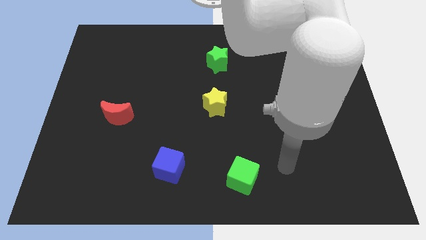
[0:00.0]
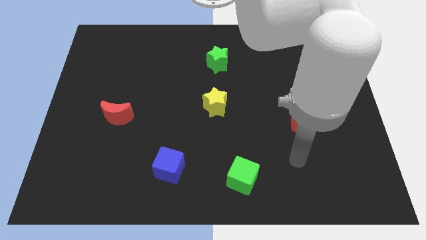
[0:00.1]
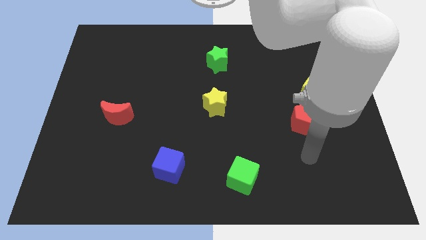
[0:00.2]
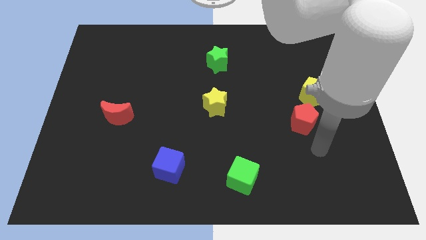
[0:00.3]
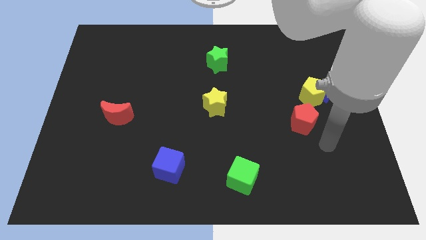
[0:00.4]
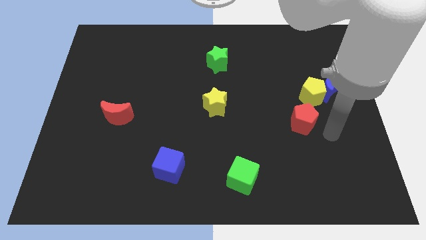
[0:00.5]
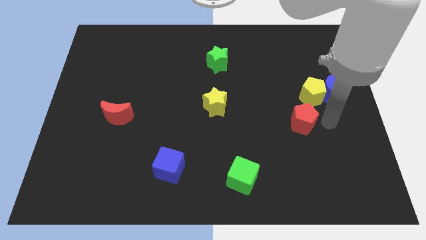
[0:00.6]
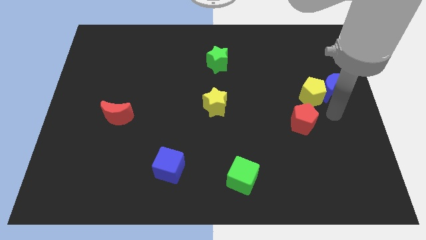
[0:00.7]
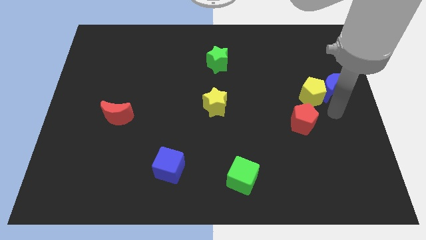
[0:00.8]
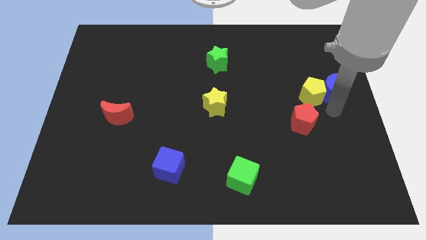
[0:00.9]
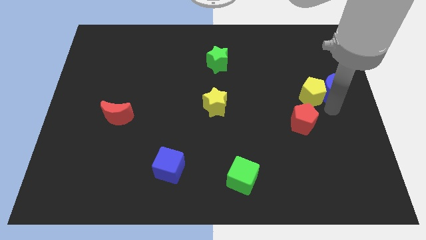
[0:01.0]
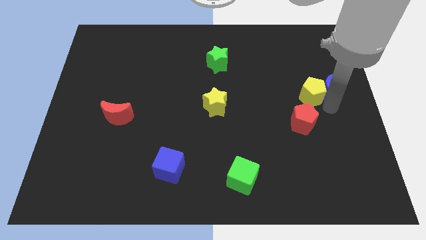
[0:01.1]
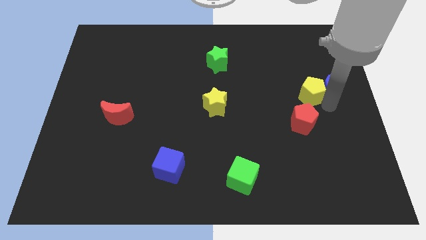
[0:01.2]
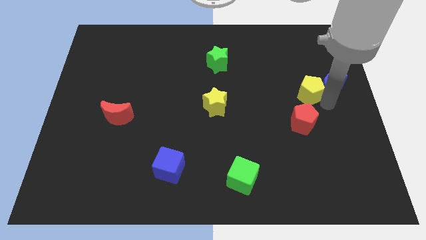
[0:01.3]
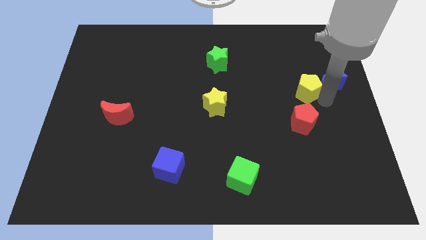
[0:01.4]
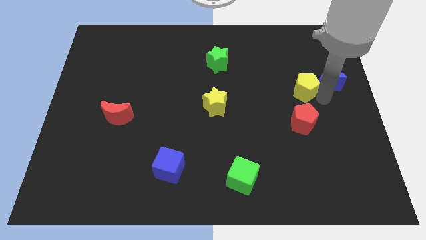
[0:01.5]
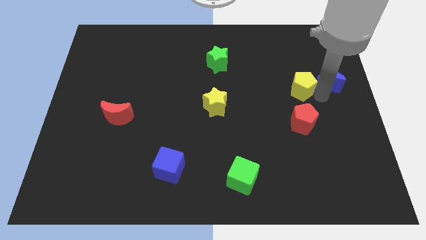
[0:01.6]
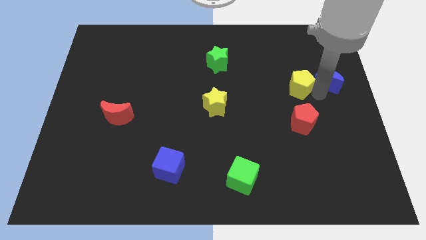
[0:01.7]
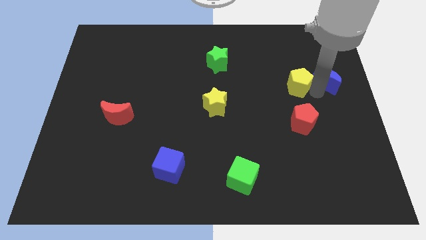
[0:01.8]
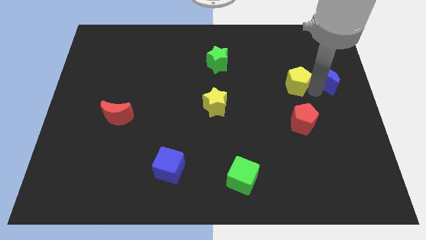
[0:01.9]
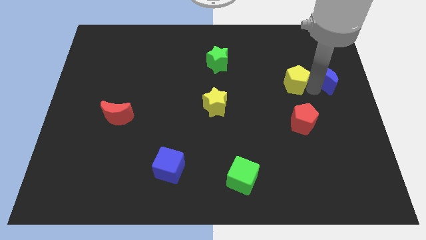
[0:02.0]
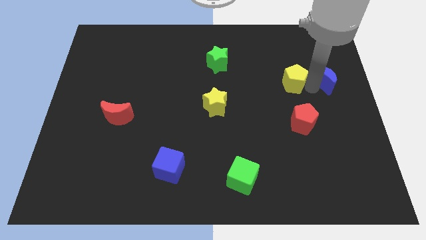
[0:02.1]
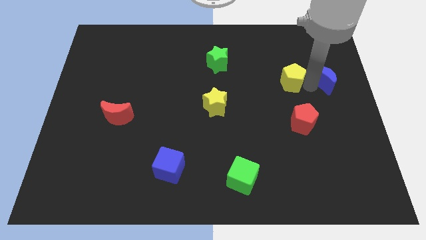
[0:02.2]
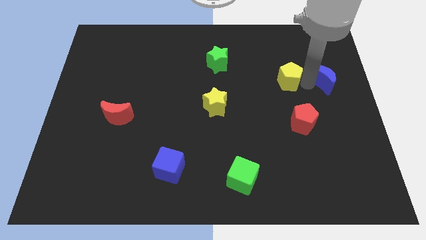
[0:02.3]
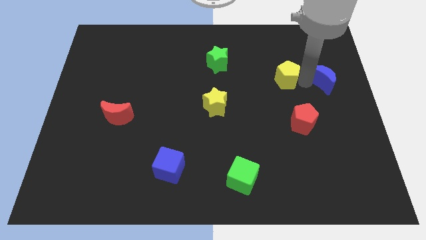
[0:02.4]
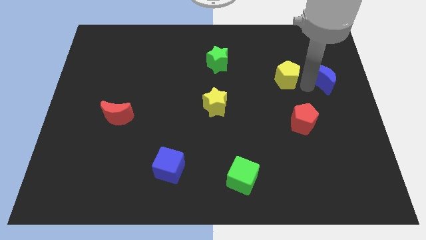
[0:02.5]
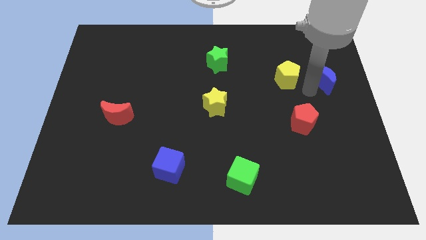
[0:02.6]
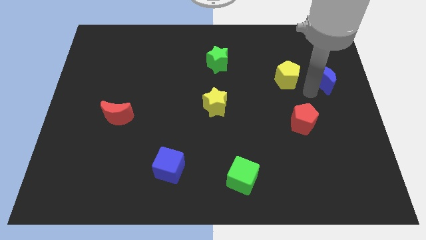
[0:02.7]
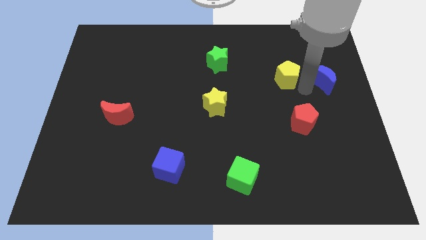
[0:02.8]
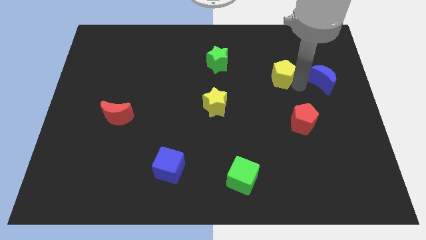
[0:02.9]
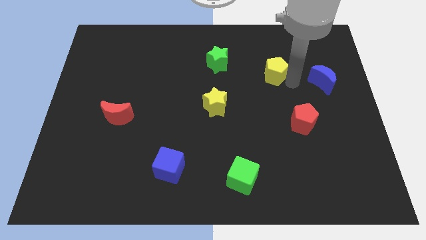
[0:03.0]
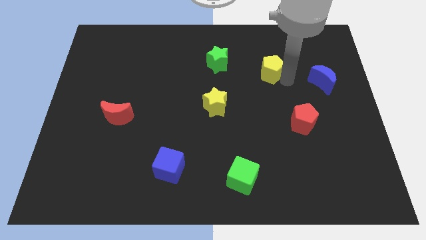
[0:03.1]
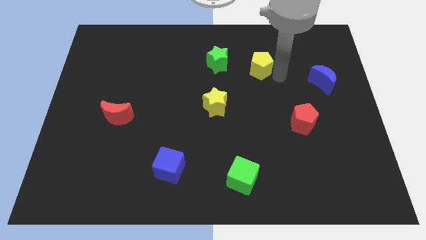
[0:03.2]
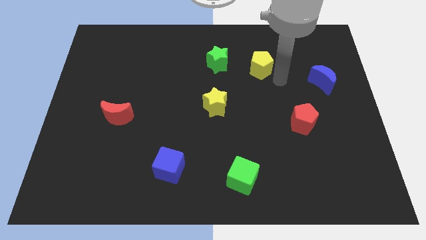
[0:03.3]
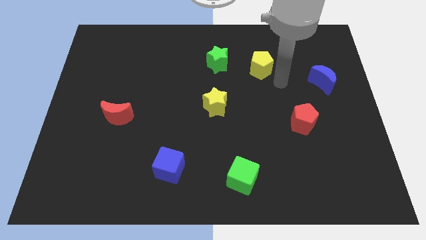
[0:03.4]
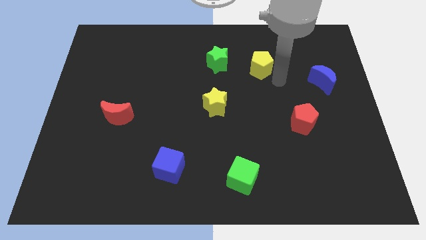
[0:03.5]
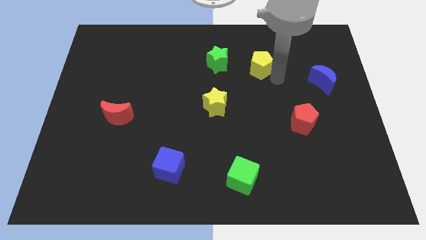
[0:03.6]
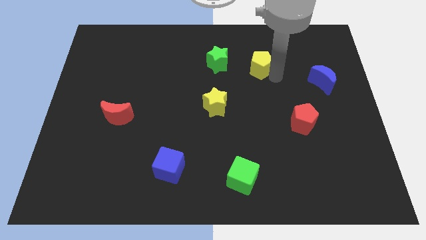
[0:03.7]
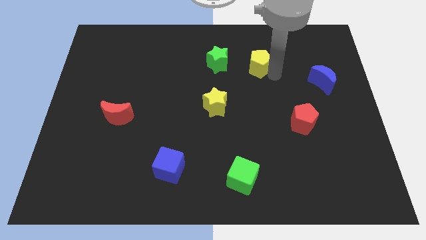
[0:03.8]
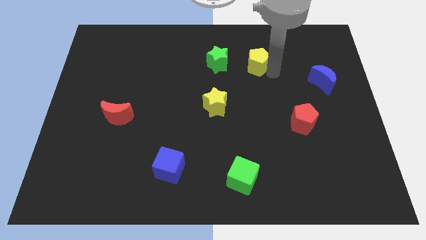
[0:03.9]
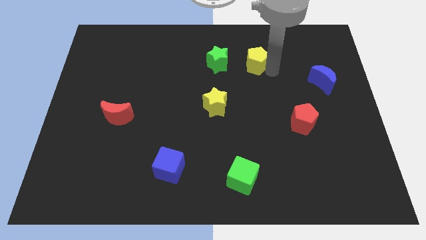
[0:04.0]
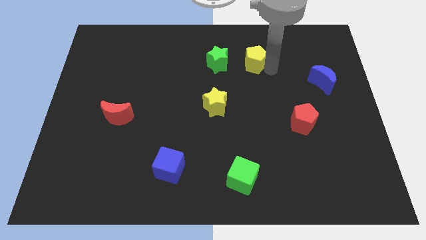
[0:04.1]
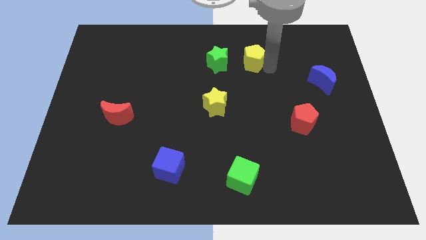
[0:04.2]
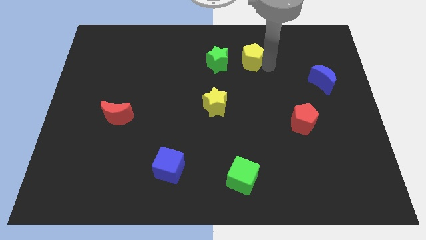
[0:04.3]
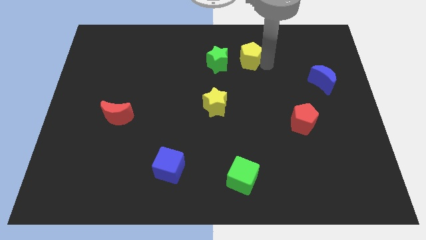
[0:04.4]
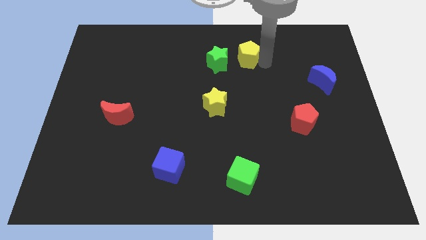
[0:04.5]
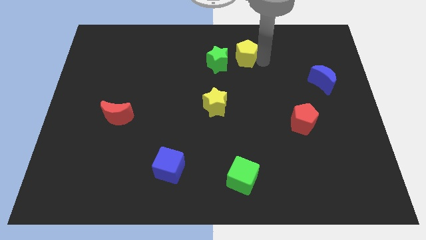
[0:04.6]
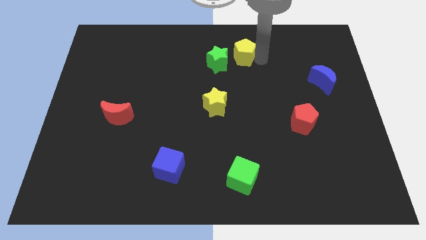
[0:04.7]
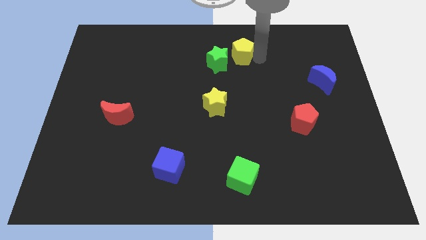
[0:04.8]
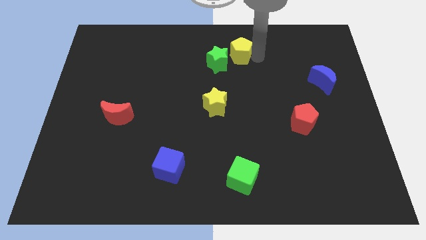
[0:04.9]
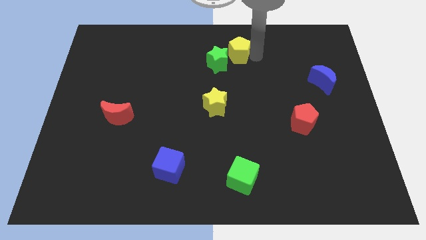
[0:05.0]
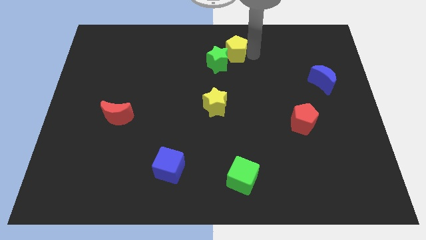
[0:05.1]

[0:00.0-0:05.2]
put the yellow pentagon to the top

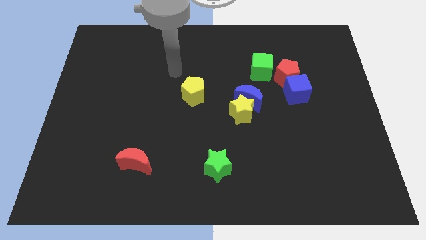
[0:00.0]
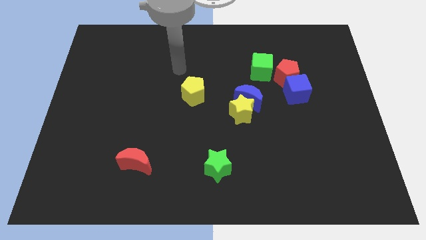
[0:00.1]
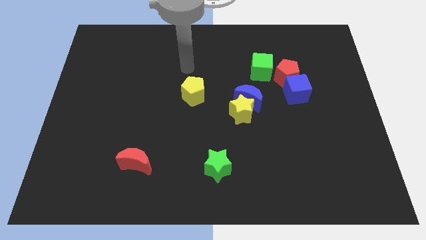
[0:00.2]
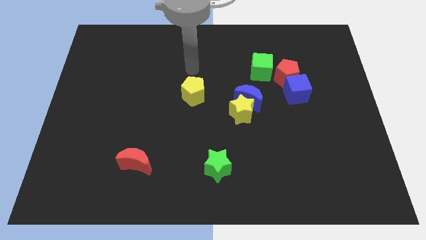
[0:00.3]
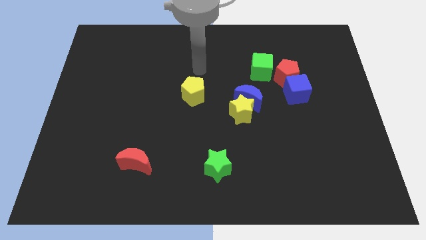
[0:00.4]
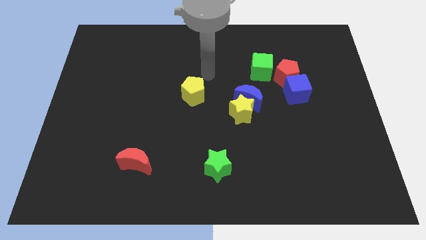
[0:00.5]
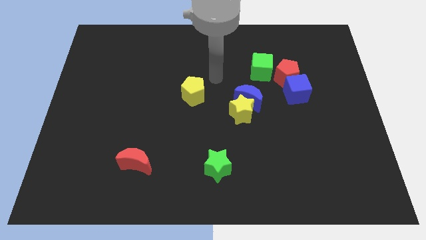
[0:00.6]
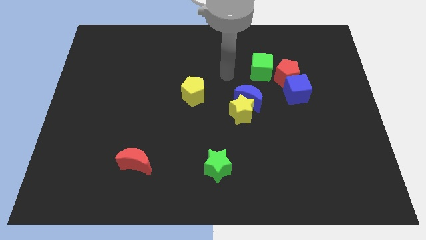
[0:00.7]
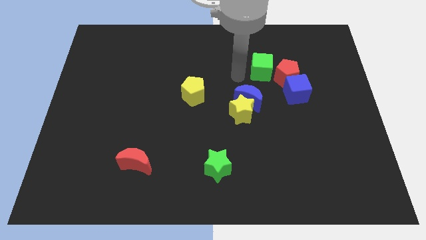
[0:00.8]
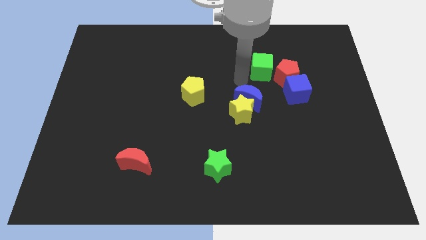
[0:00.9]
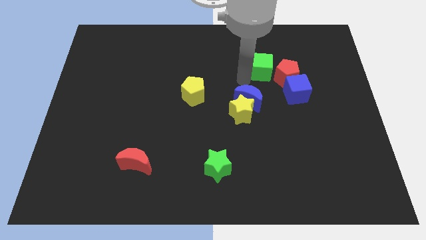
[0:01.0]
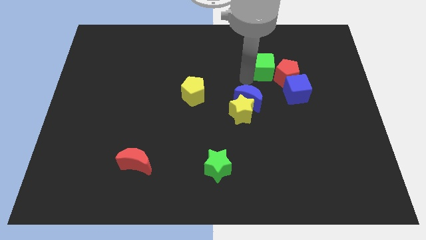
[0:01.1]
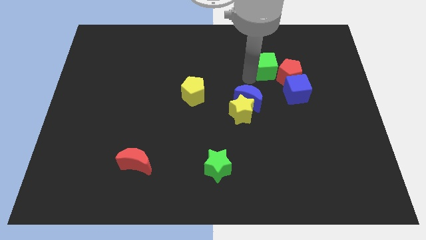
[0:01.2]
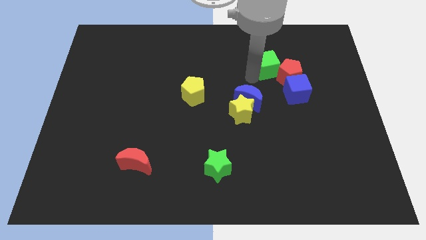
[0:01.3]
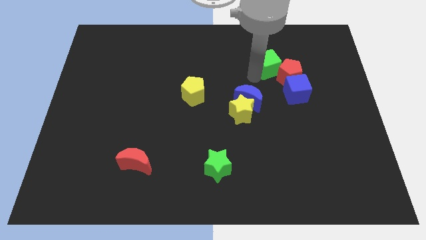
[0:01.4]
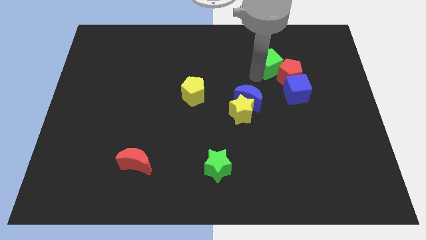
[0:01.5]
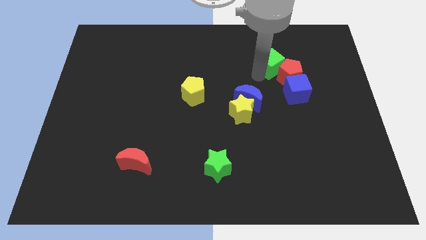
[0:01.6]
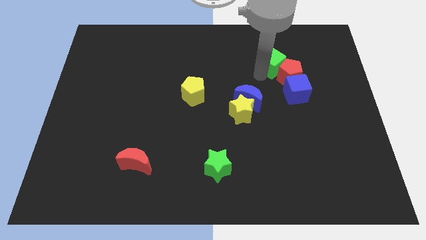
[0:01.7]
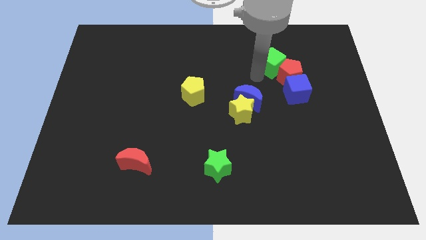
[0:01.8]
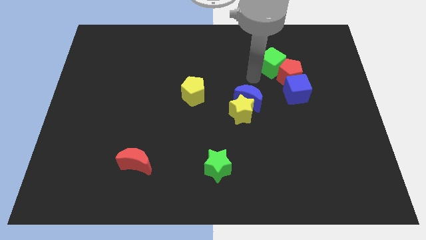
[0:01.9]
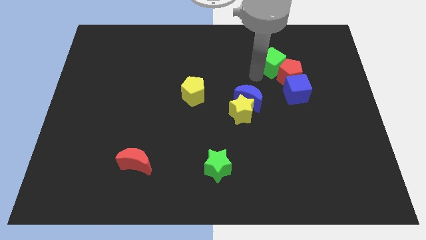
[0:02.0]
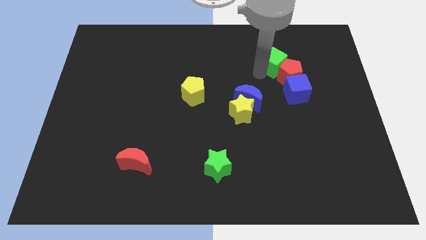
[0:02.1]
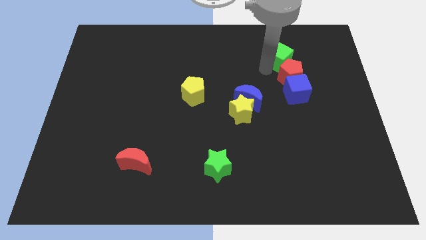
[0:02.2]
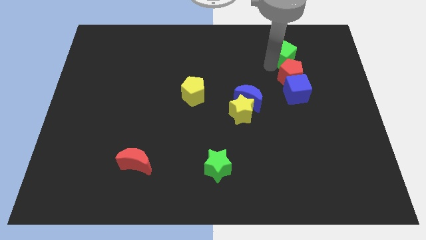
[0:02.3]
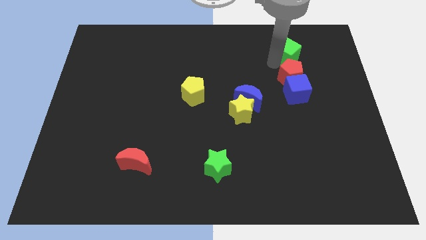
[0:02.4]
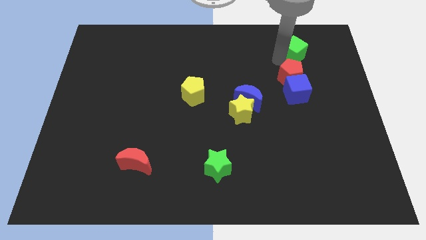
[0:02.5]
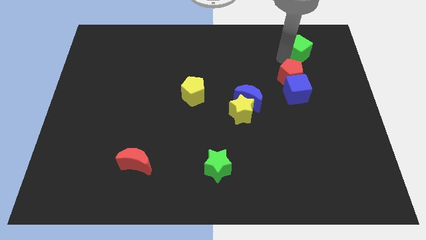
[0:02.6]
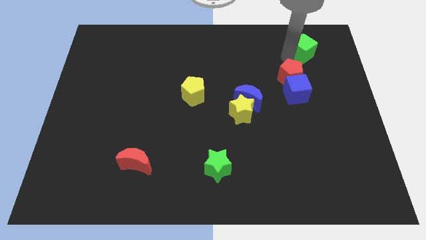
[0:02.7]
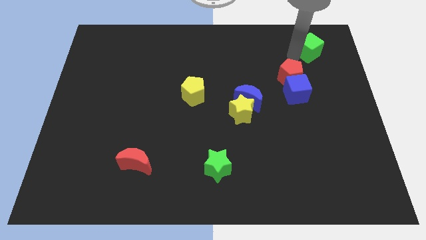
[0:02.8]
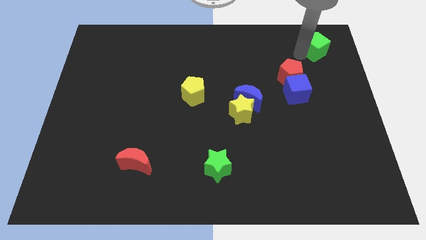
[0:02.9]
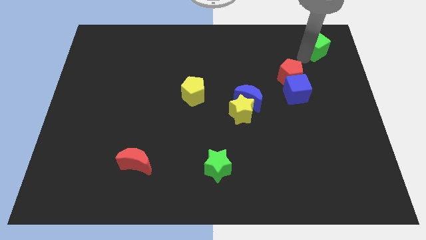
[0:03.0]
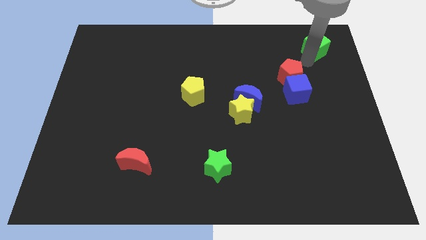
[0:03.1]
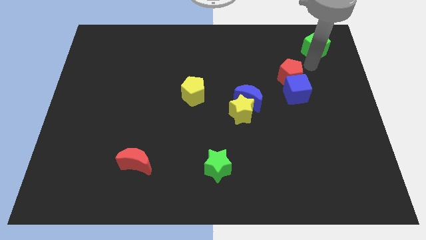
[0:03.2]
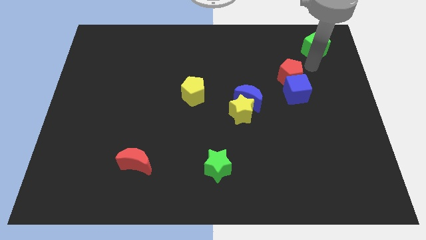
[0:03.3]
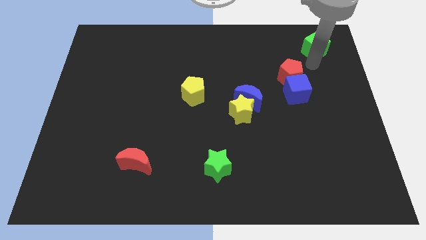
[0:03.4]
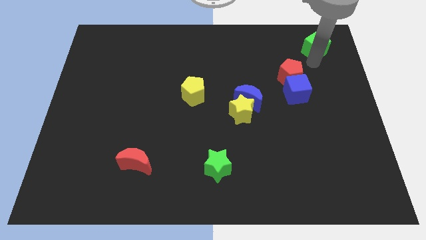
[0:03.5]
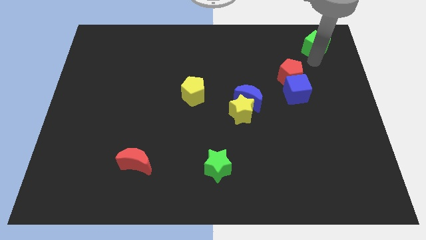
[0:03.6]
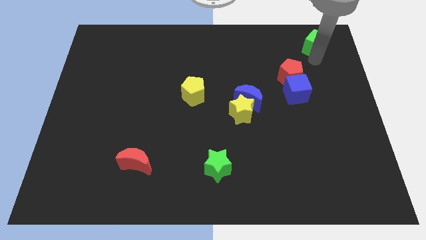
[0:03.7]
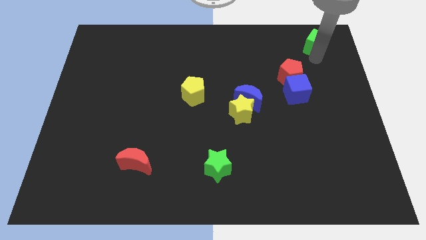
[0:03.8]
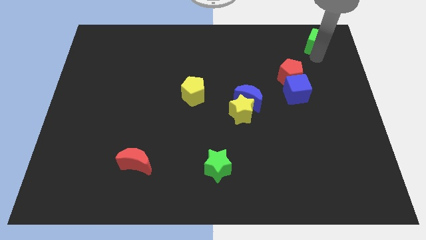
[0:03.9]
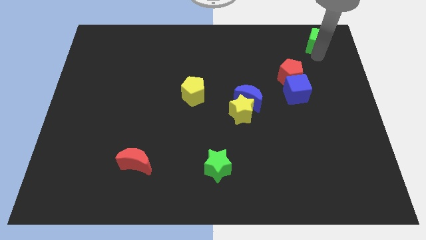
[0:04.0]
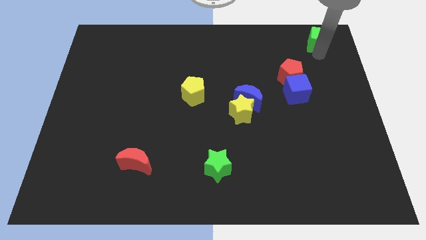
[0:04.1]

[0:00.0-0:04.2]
move the green cube to the top right of the board
